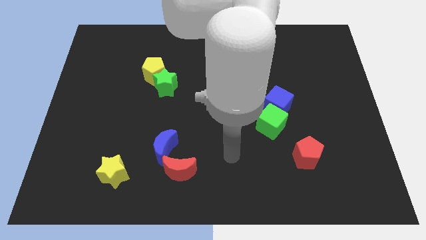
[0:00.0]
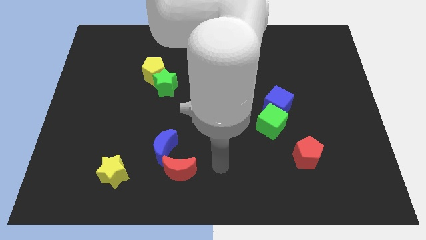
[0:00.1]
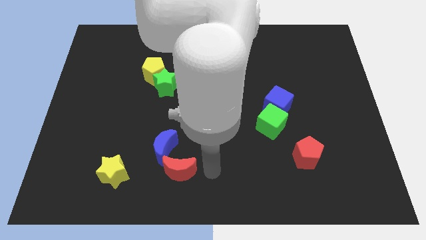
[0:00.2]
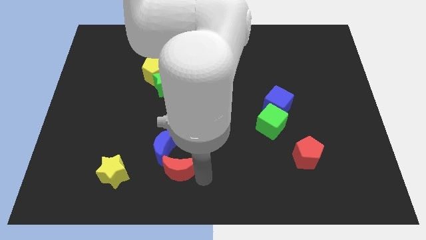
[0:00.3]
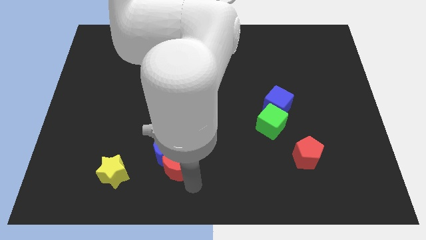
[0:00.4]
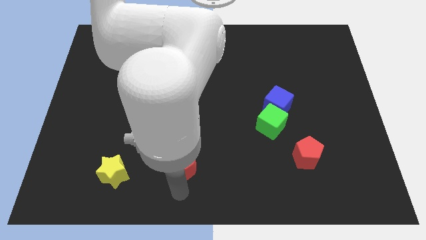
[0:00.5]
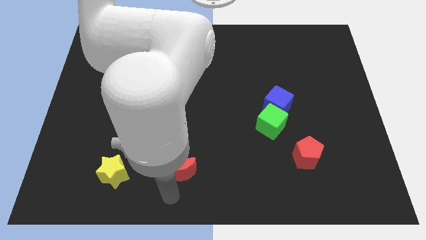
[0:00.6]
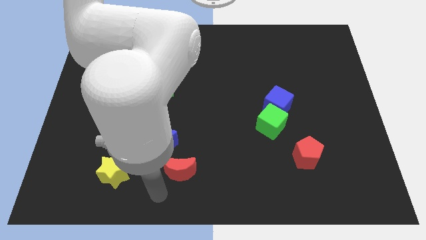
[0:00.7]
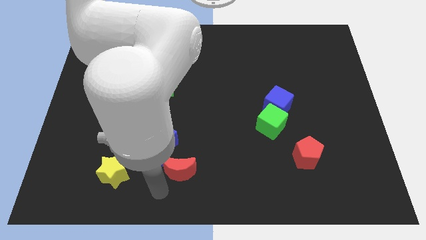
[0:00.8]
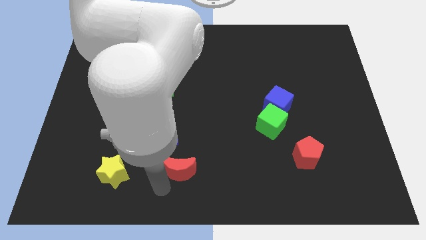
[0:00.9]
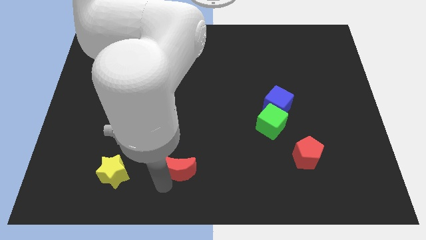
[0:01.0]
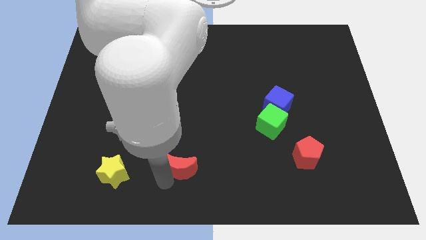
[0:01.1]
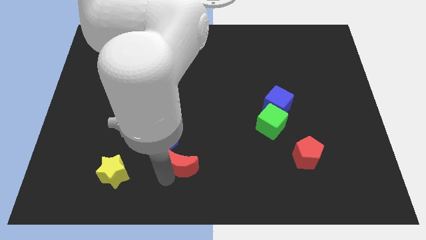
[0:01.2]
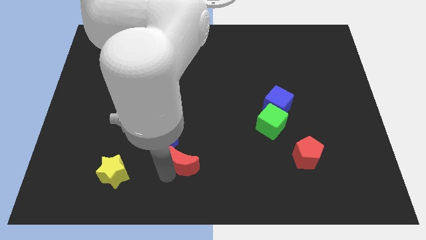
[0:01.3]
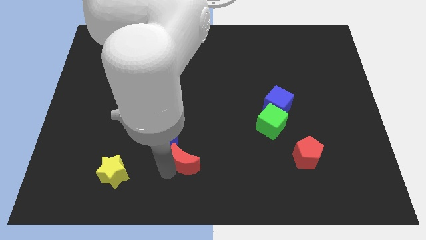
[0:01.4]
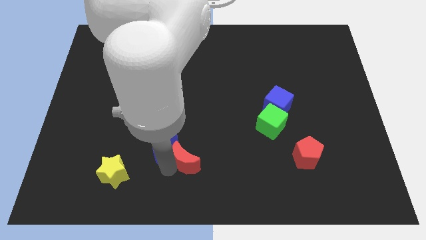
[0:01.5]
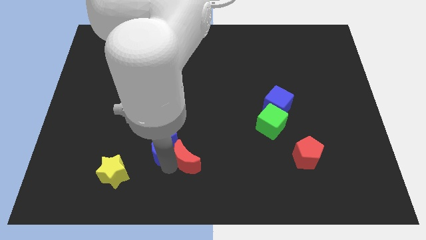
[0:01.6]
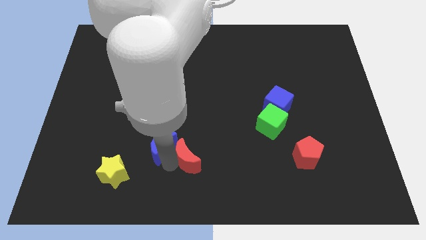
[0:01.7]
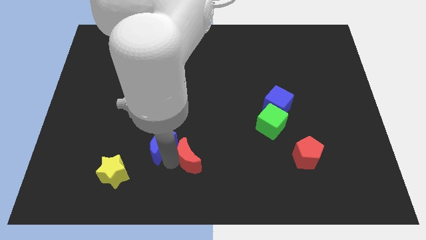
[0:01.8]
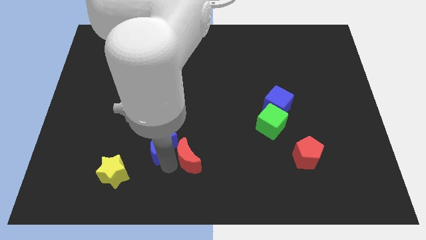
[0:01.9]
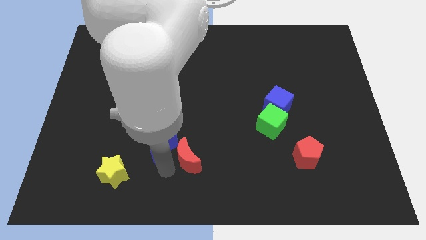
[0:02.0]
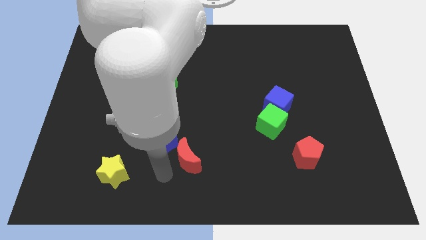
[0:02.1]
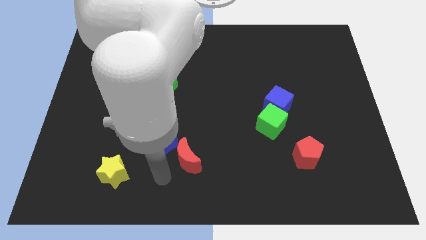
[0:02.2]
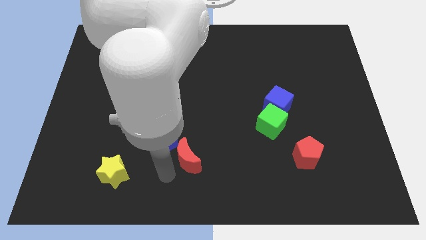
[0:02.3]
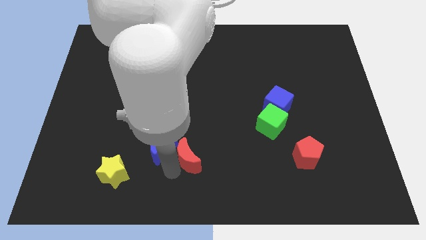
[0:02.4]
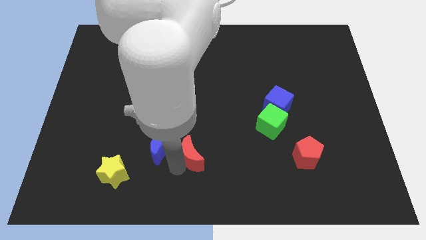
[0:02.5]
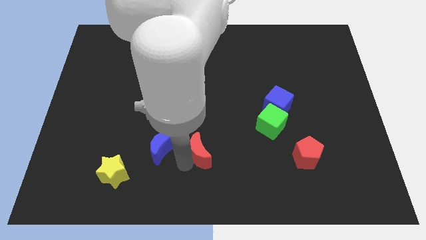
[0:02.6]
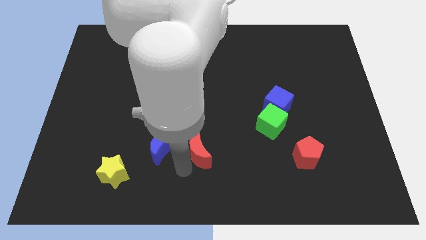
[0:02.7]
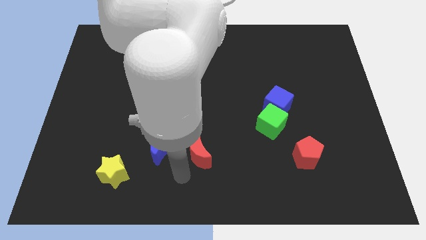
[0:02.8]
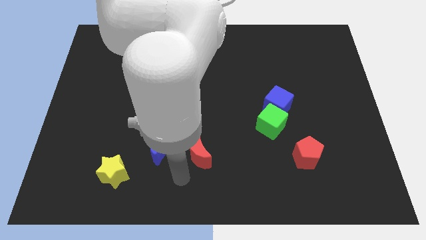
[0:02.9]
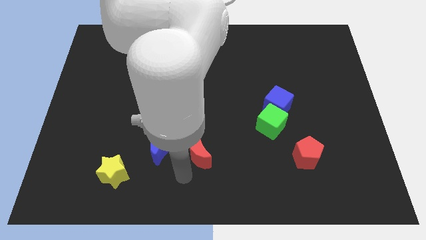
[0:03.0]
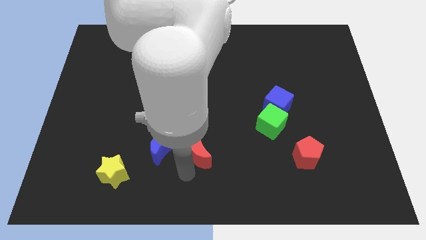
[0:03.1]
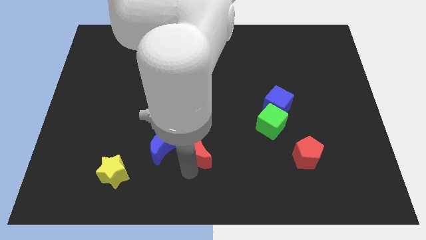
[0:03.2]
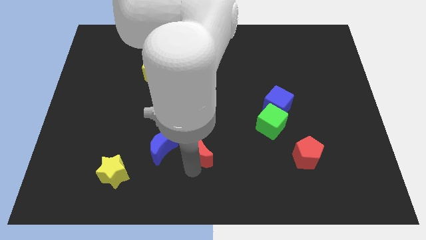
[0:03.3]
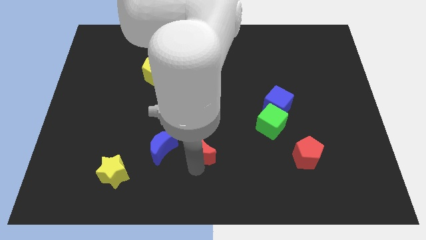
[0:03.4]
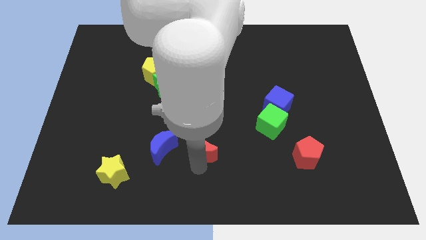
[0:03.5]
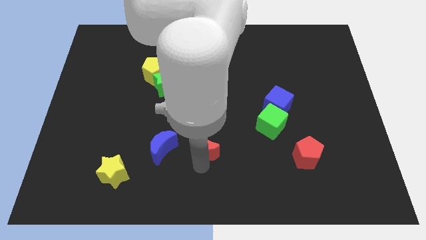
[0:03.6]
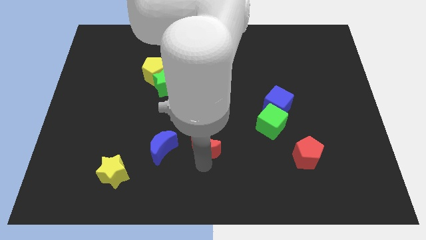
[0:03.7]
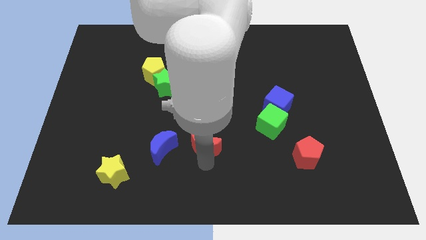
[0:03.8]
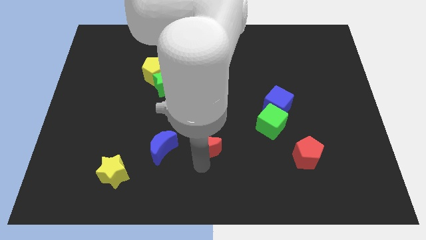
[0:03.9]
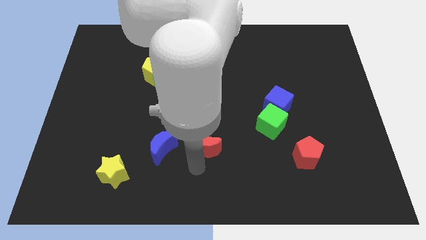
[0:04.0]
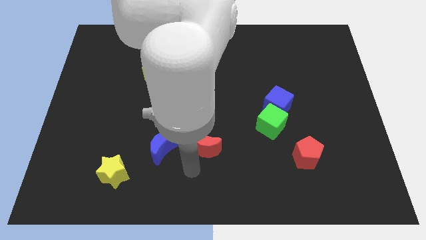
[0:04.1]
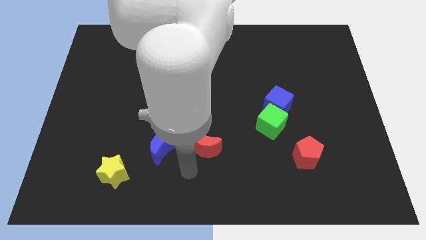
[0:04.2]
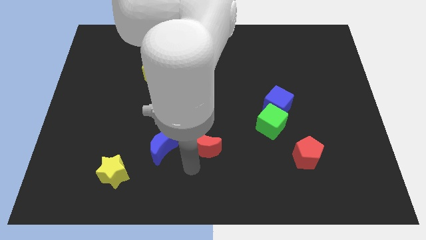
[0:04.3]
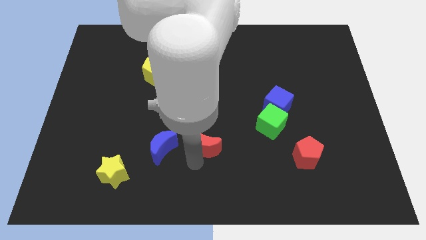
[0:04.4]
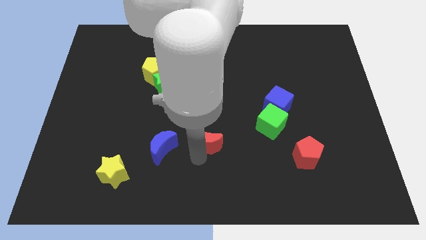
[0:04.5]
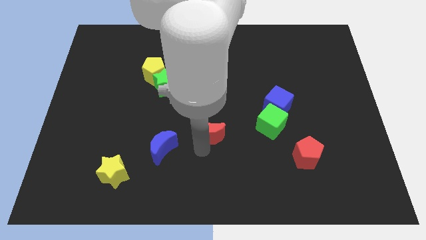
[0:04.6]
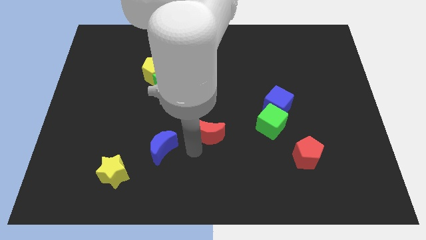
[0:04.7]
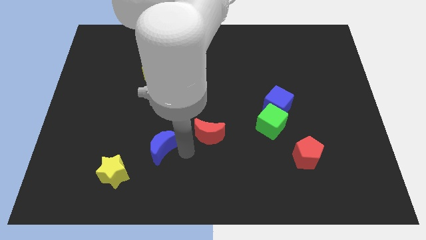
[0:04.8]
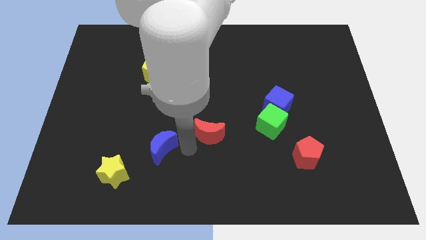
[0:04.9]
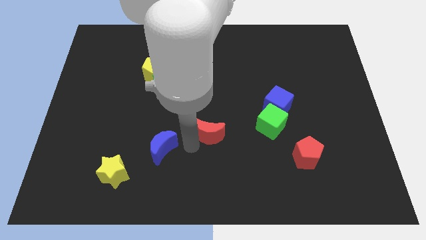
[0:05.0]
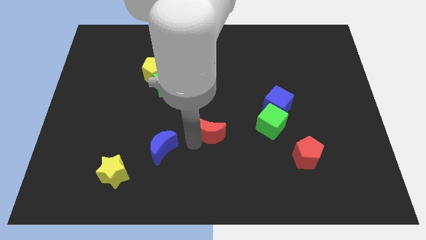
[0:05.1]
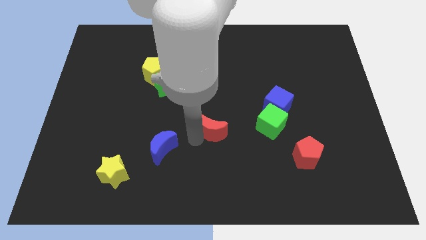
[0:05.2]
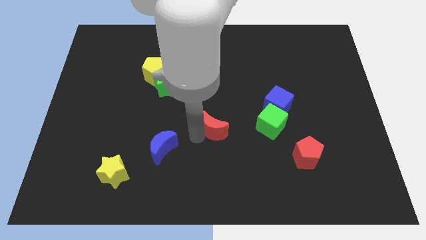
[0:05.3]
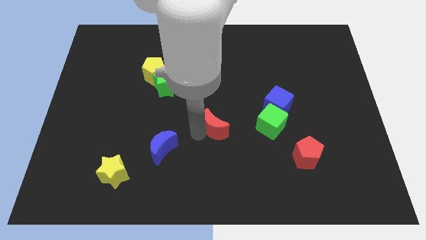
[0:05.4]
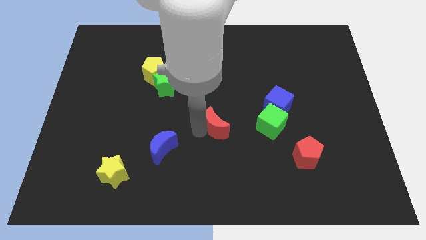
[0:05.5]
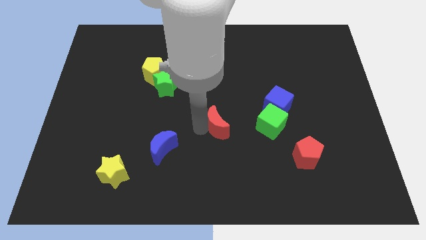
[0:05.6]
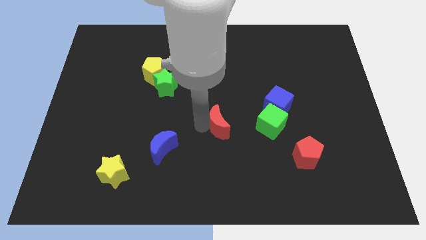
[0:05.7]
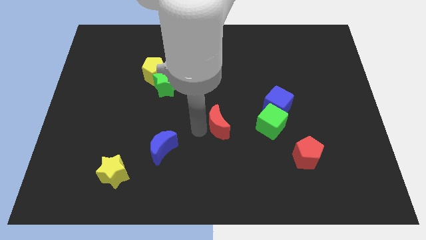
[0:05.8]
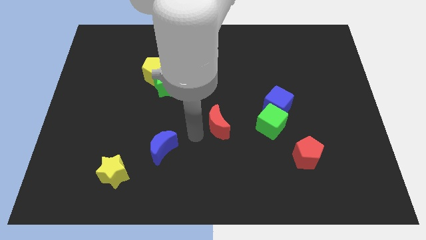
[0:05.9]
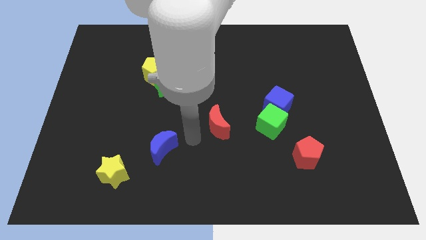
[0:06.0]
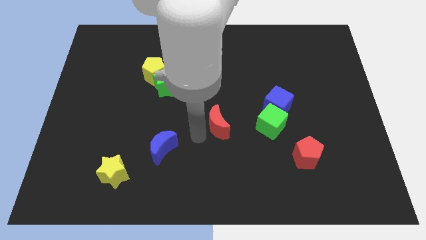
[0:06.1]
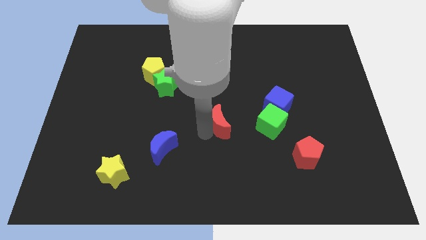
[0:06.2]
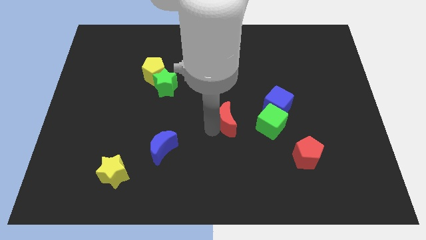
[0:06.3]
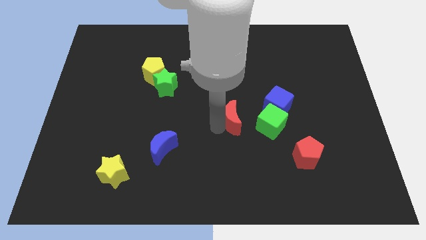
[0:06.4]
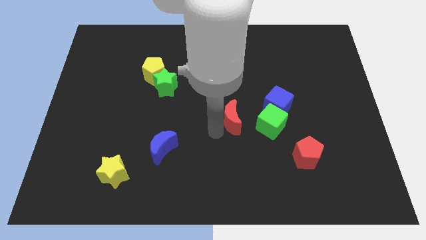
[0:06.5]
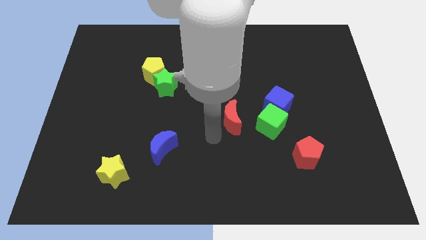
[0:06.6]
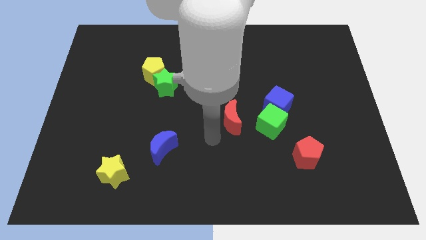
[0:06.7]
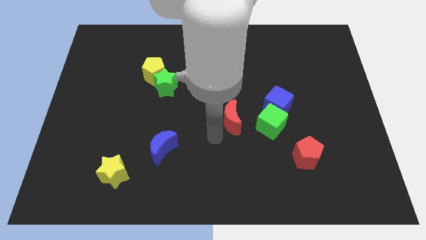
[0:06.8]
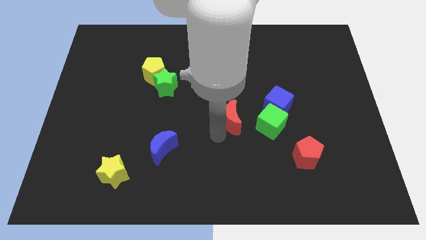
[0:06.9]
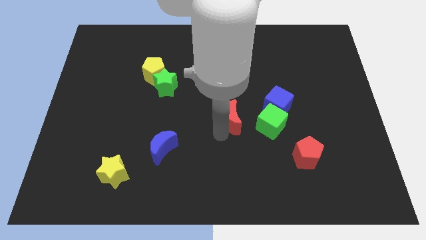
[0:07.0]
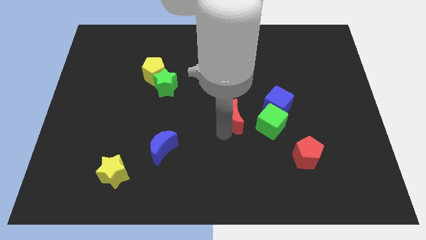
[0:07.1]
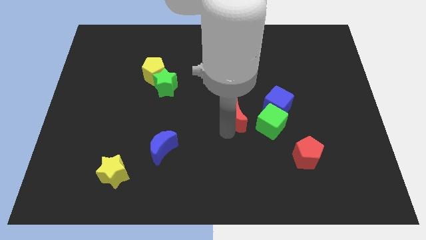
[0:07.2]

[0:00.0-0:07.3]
move the red moon to the top left of the green cube

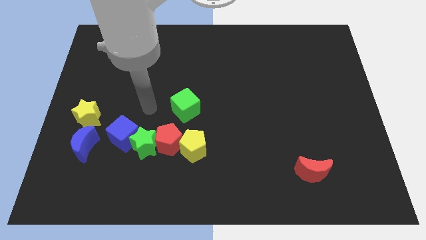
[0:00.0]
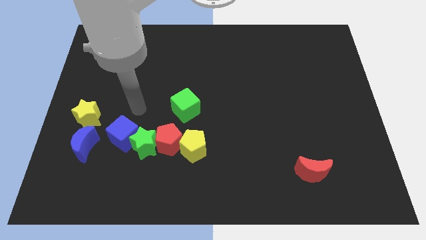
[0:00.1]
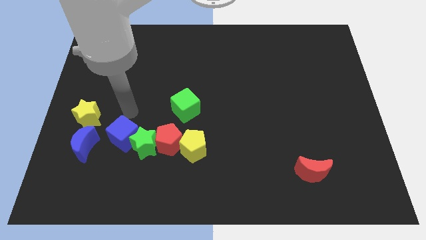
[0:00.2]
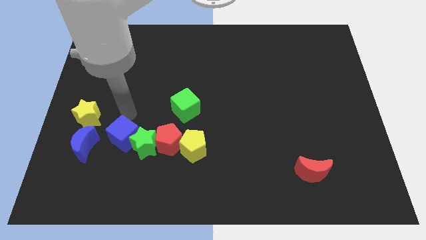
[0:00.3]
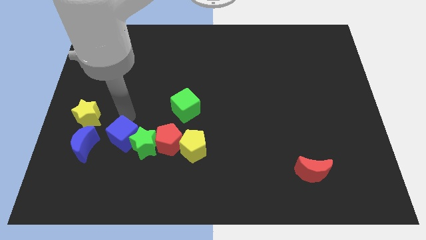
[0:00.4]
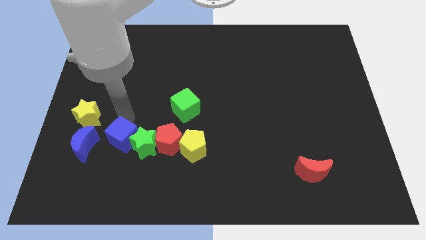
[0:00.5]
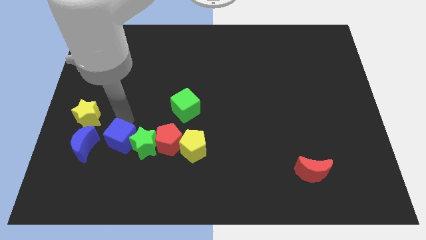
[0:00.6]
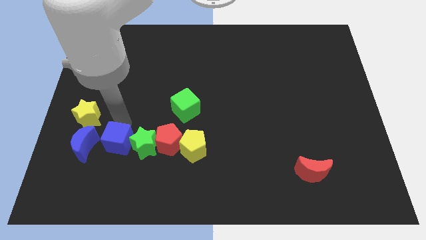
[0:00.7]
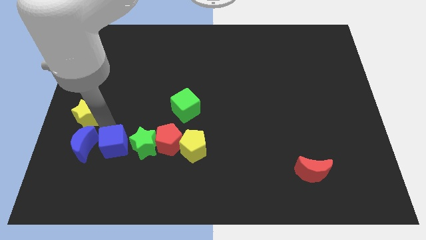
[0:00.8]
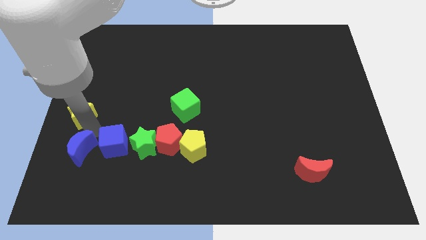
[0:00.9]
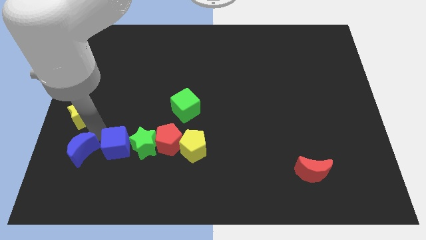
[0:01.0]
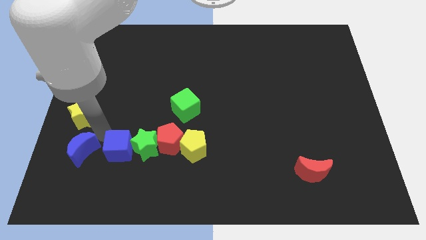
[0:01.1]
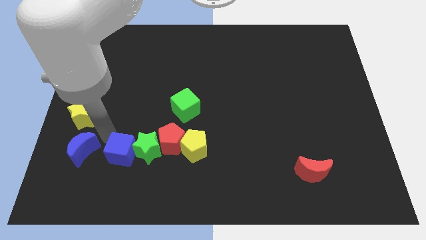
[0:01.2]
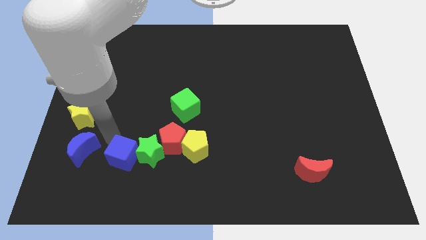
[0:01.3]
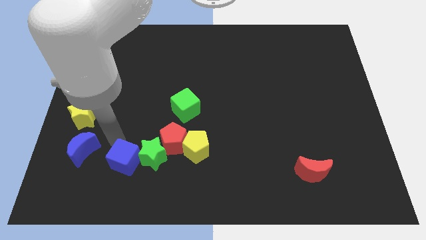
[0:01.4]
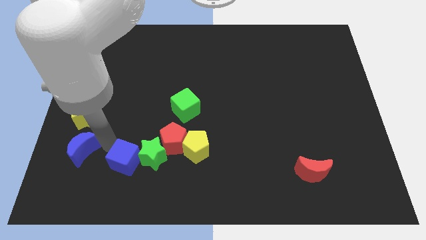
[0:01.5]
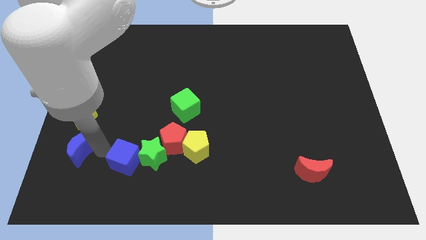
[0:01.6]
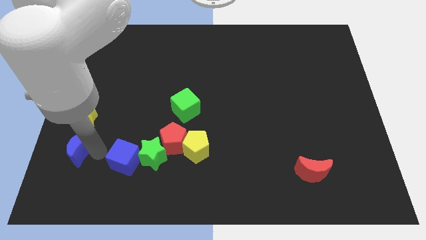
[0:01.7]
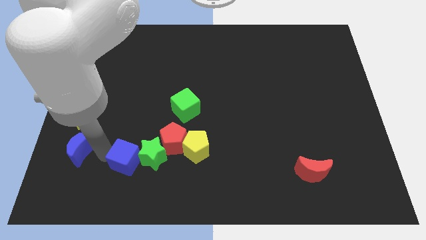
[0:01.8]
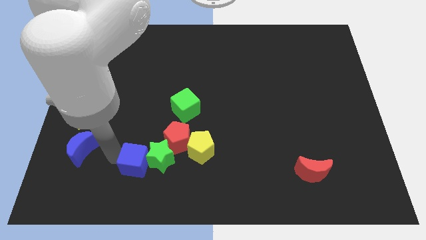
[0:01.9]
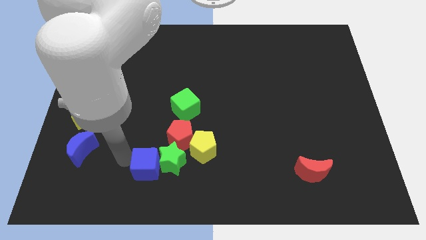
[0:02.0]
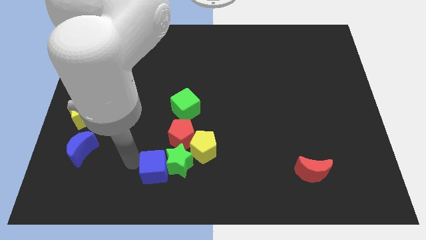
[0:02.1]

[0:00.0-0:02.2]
push the blue cube diagonally down and to the left of the yellow pentagon
